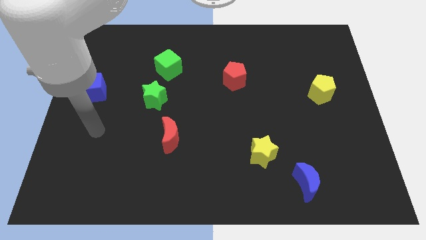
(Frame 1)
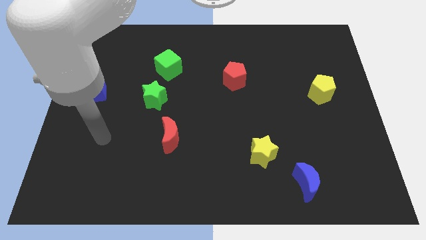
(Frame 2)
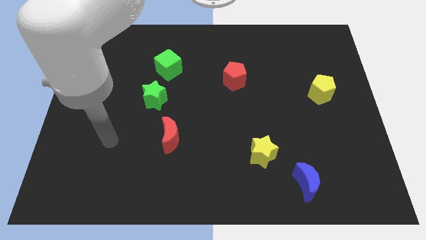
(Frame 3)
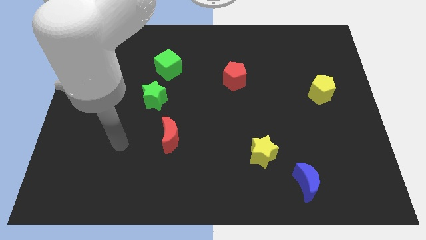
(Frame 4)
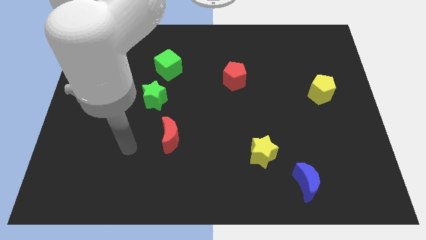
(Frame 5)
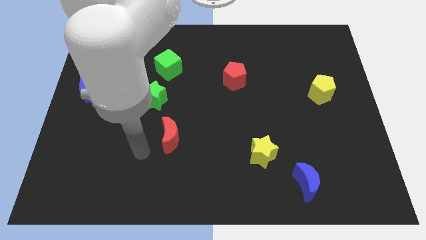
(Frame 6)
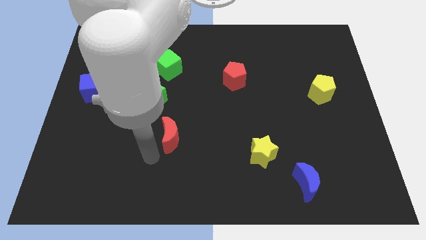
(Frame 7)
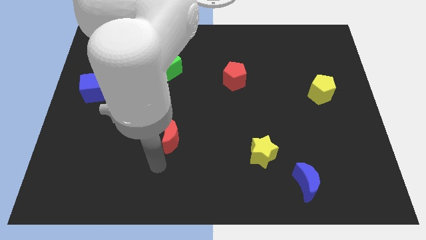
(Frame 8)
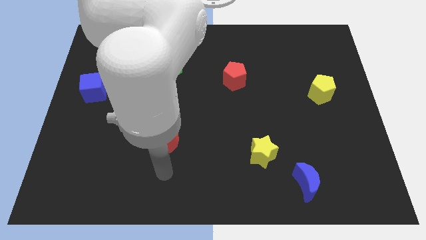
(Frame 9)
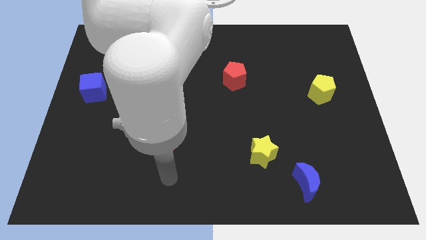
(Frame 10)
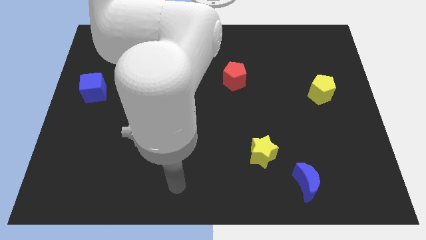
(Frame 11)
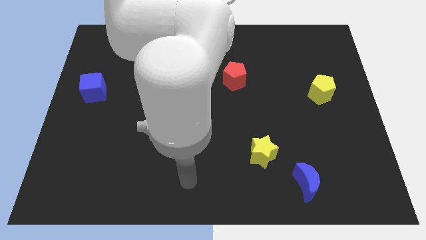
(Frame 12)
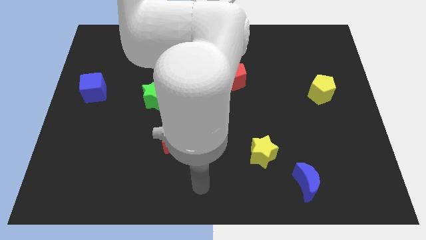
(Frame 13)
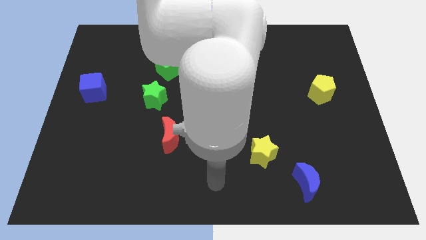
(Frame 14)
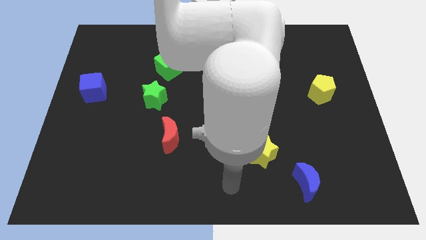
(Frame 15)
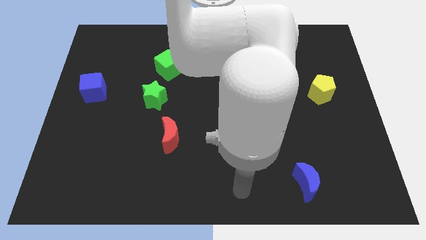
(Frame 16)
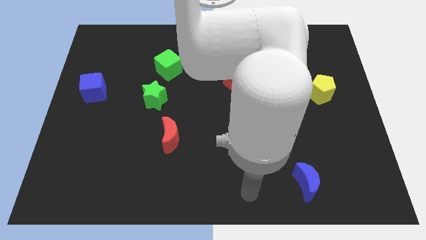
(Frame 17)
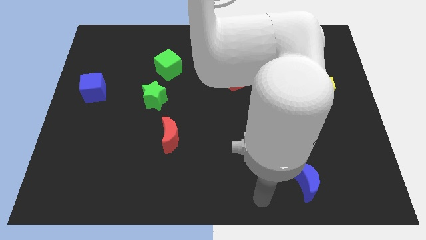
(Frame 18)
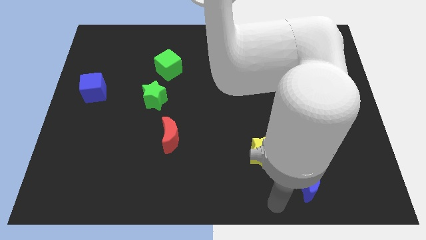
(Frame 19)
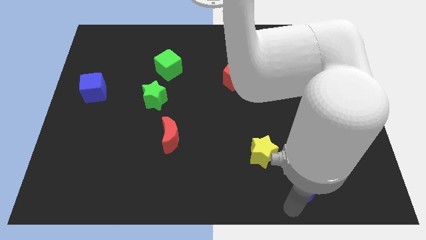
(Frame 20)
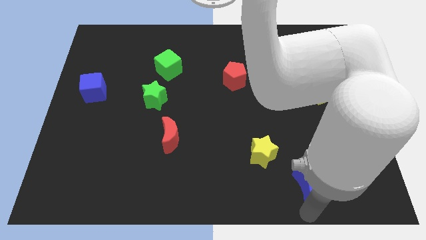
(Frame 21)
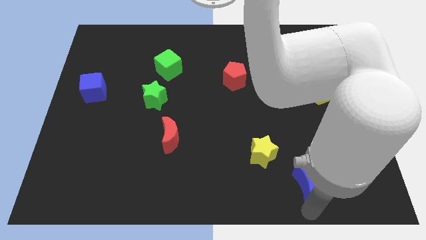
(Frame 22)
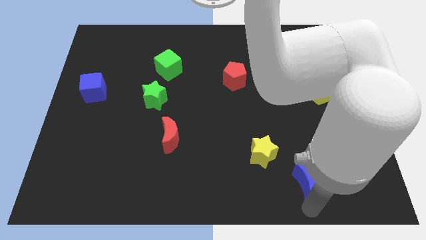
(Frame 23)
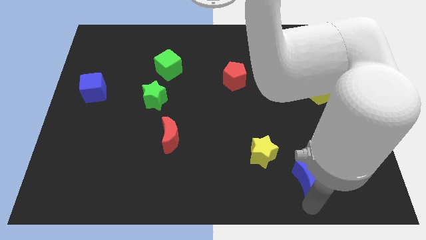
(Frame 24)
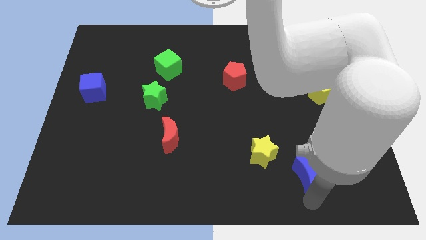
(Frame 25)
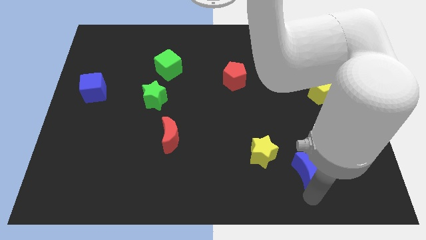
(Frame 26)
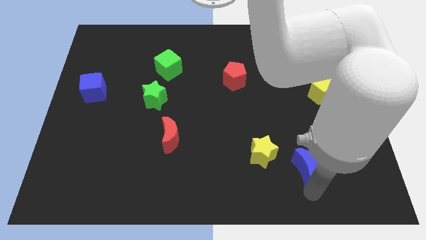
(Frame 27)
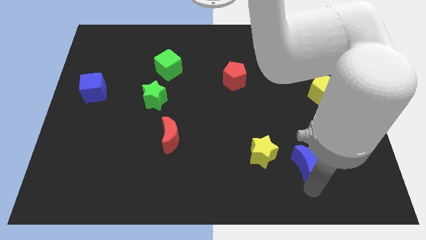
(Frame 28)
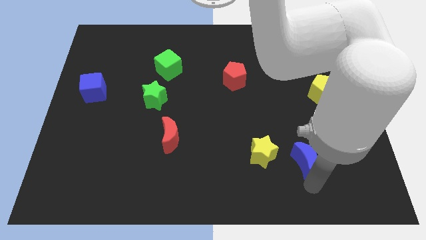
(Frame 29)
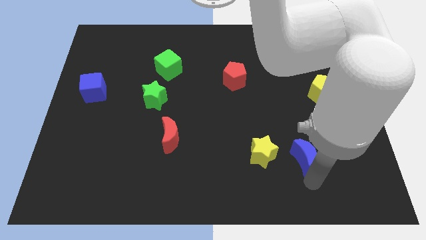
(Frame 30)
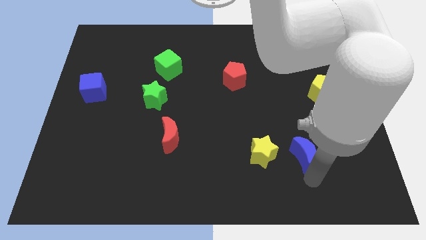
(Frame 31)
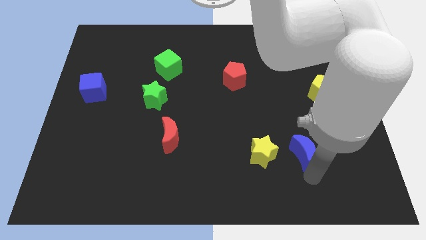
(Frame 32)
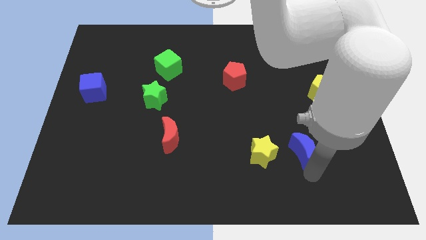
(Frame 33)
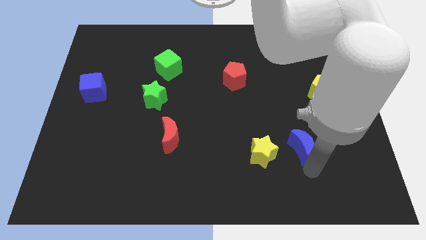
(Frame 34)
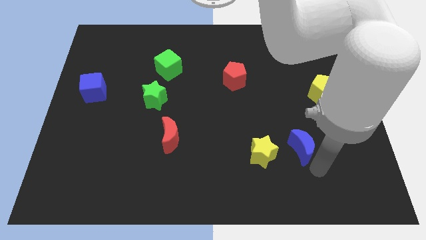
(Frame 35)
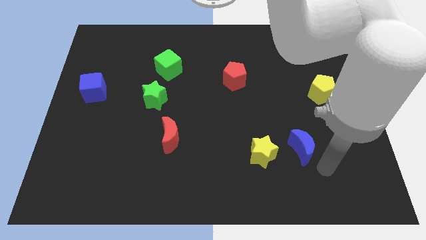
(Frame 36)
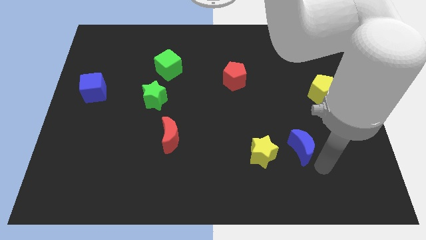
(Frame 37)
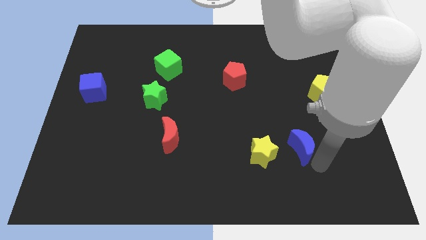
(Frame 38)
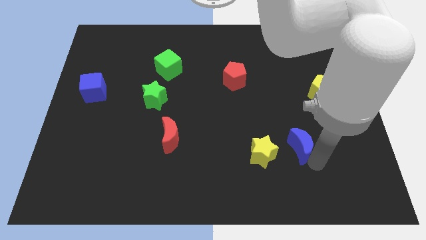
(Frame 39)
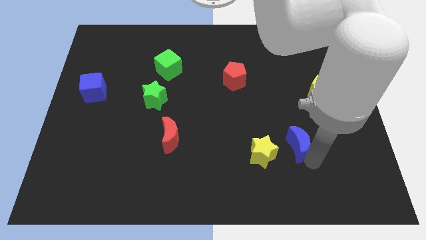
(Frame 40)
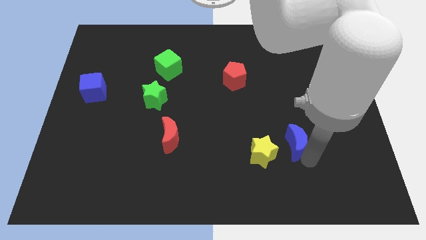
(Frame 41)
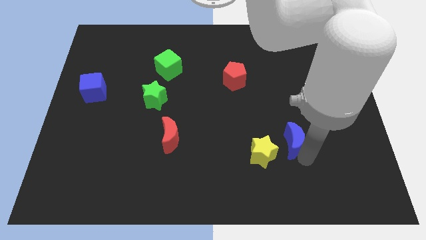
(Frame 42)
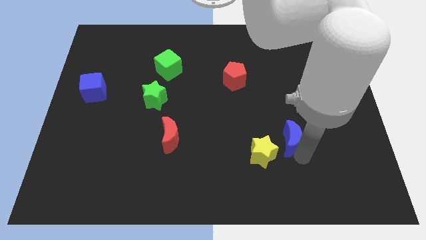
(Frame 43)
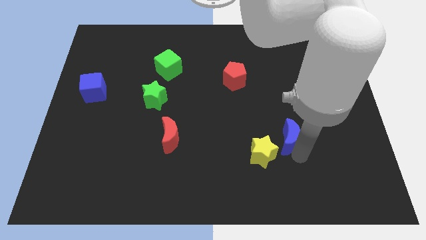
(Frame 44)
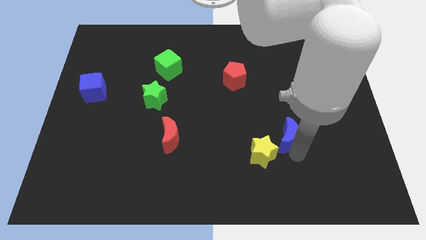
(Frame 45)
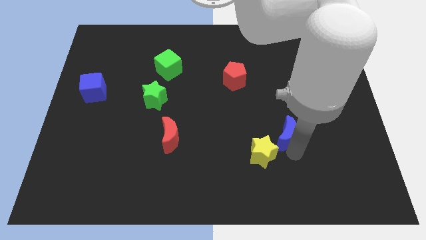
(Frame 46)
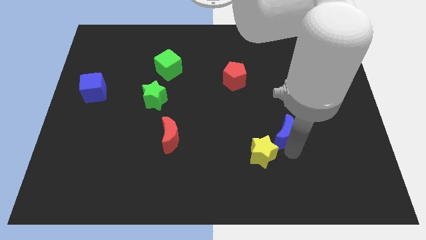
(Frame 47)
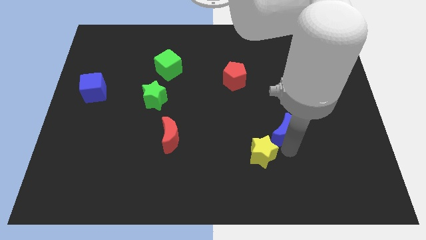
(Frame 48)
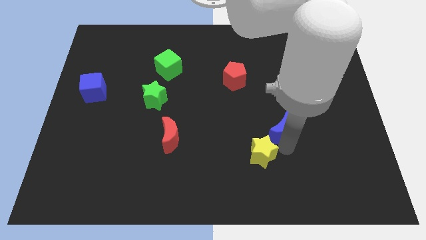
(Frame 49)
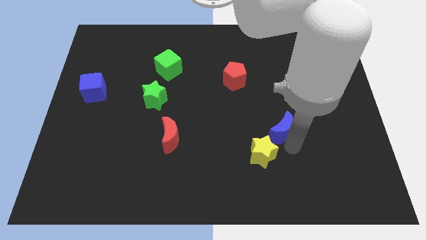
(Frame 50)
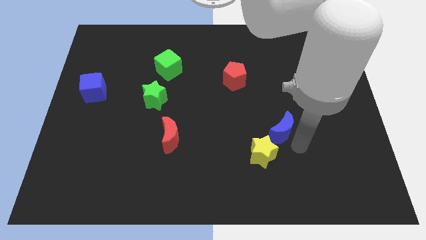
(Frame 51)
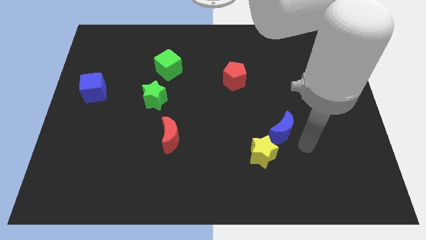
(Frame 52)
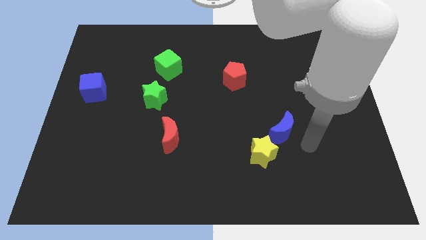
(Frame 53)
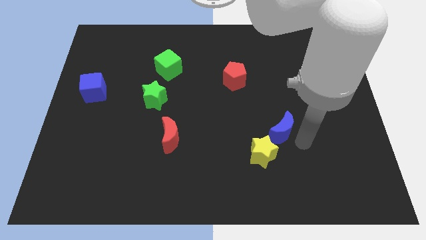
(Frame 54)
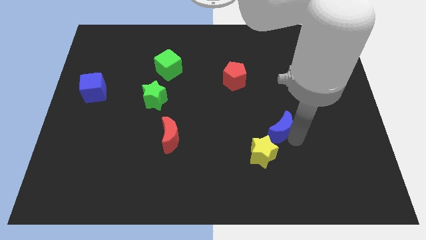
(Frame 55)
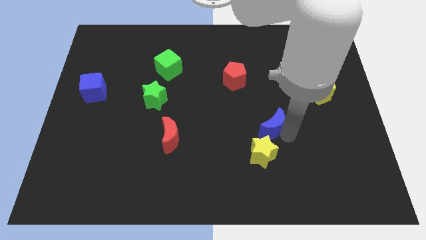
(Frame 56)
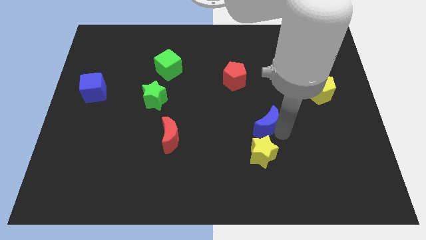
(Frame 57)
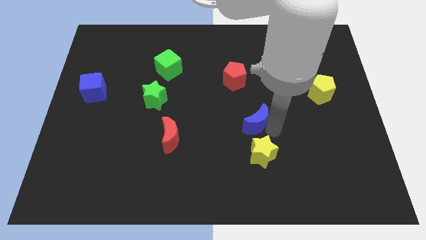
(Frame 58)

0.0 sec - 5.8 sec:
push the blue moon to the middle of the board
